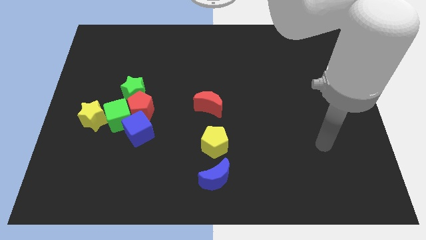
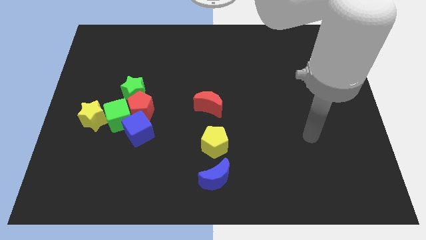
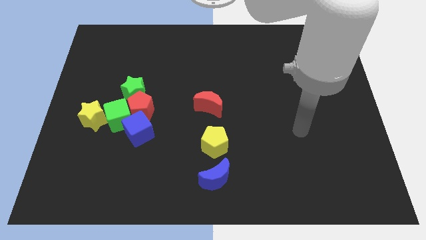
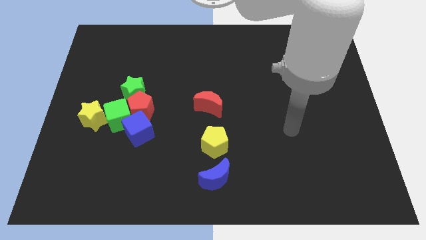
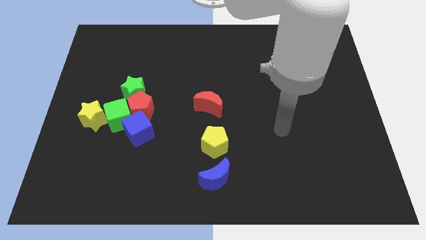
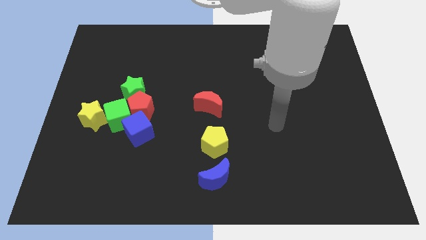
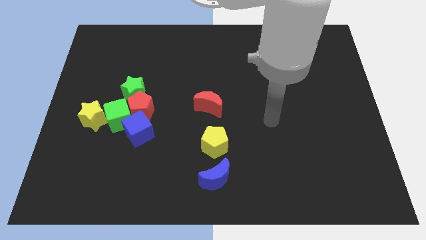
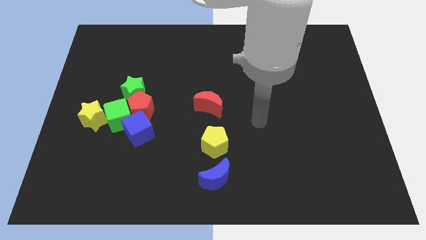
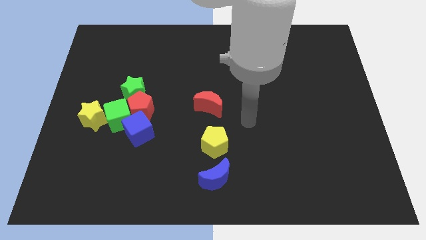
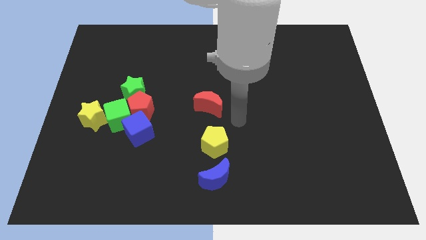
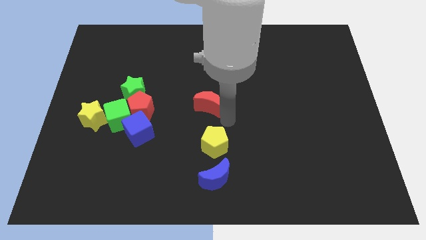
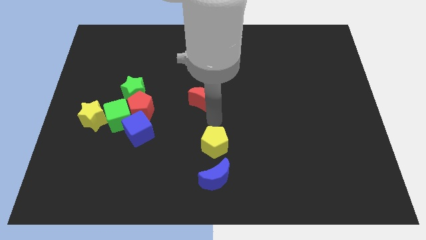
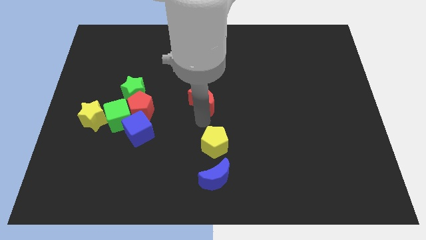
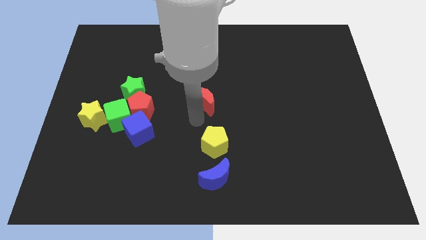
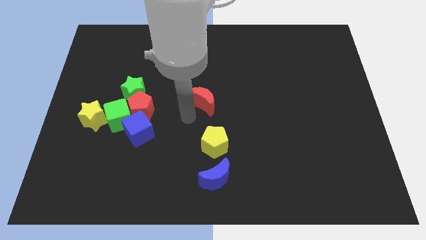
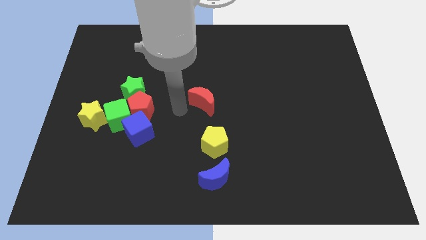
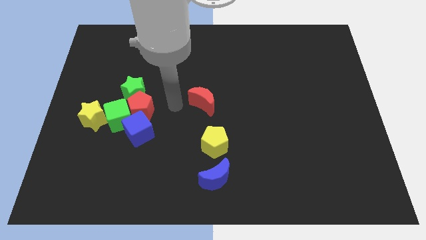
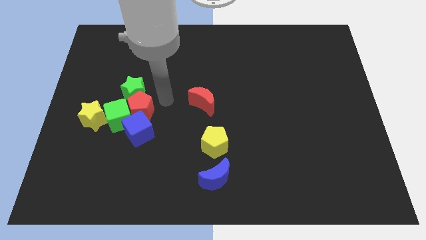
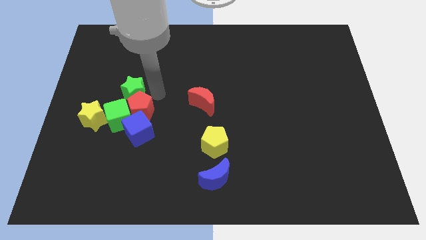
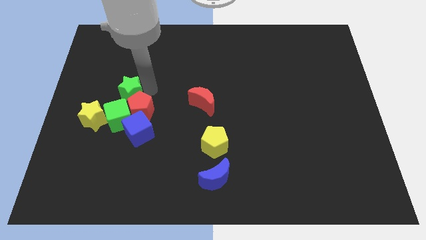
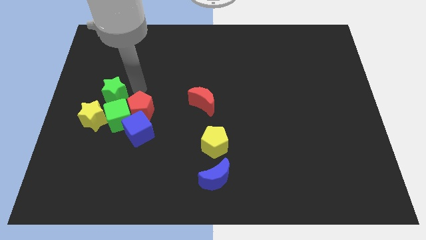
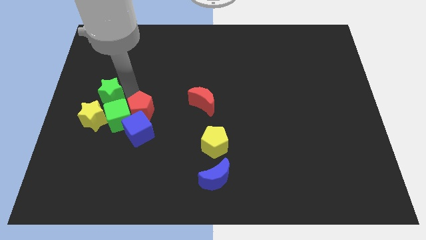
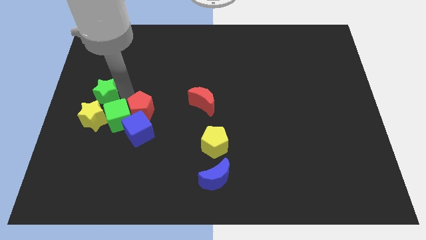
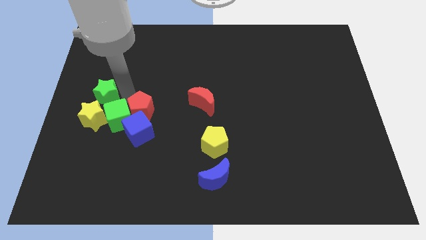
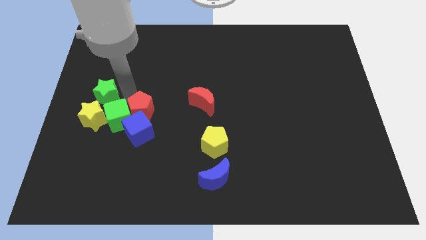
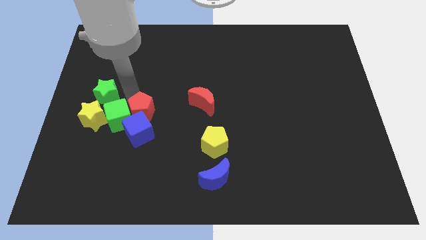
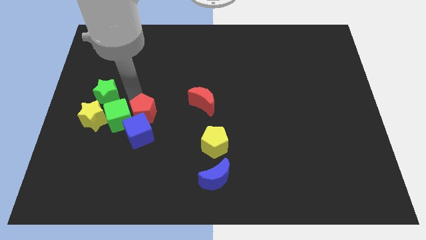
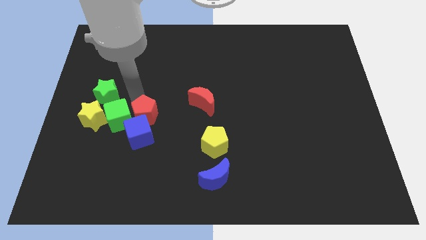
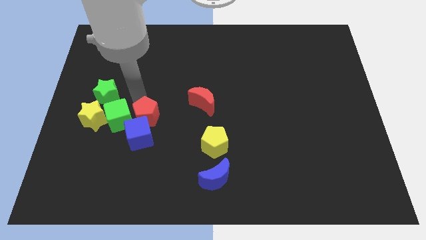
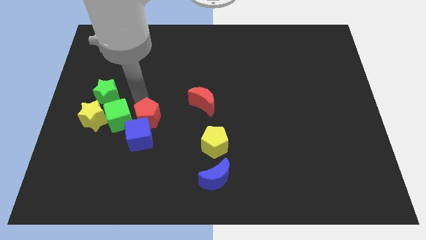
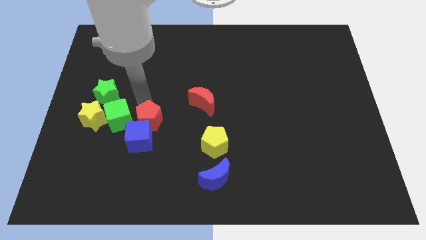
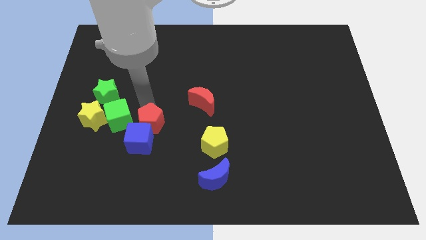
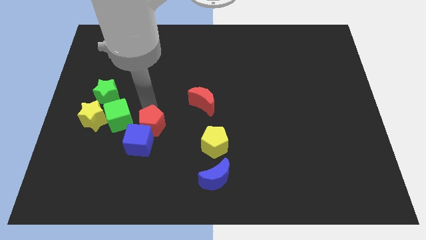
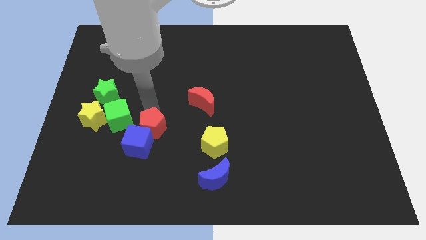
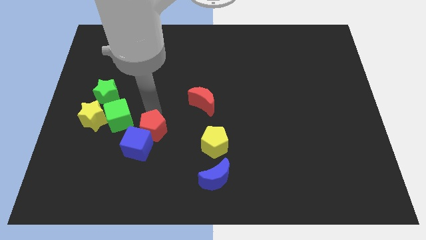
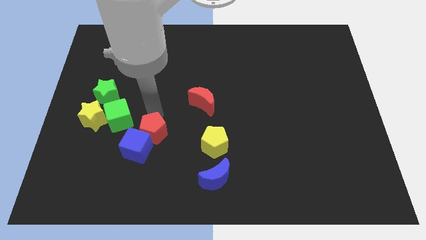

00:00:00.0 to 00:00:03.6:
move the red pentagon a little bit diagonally down and right

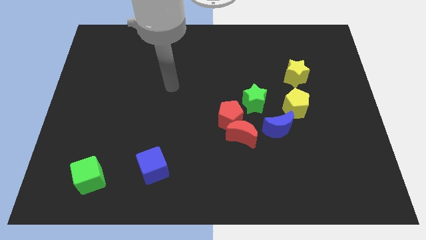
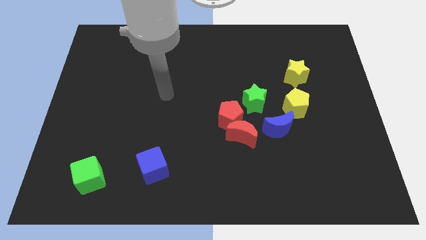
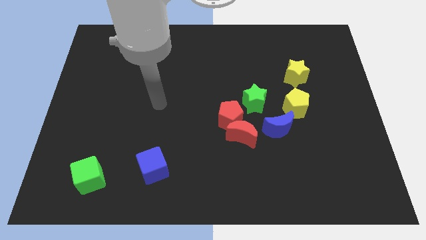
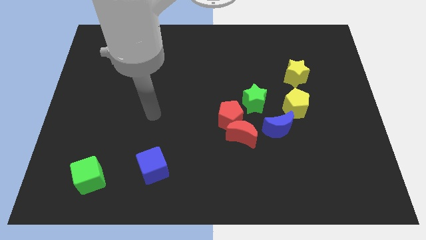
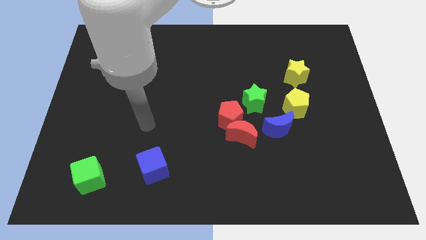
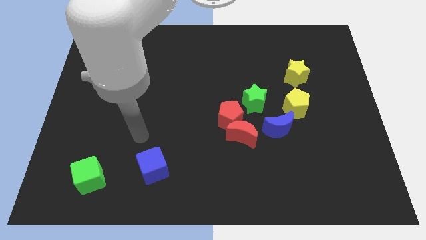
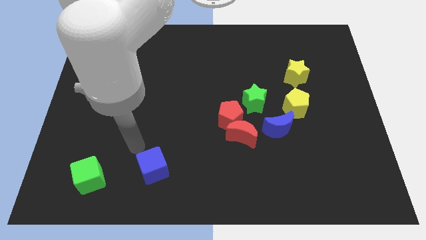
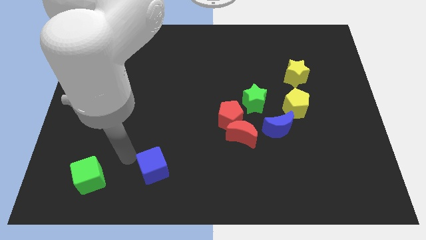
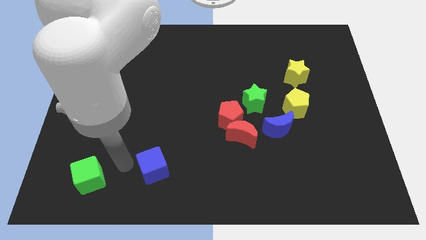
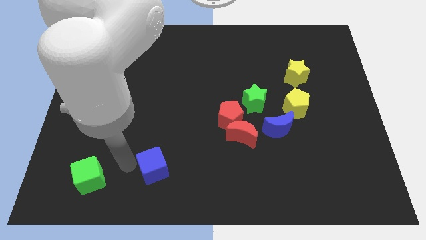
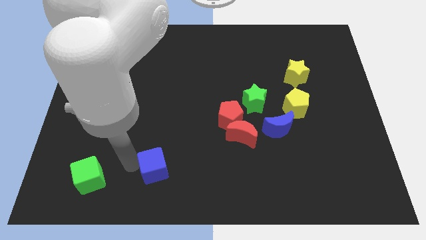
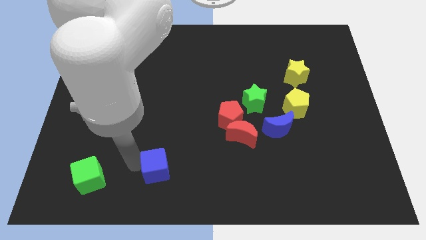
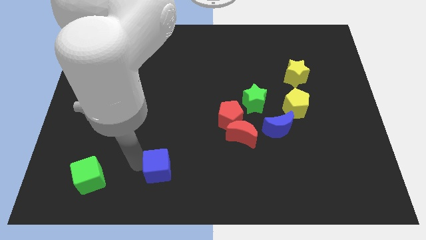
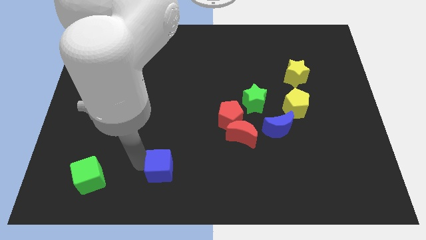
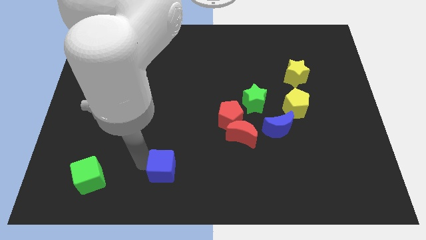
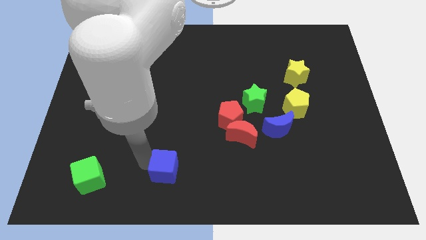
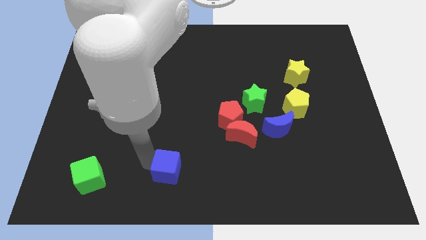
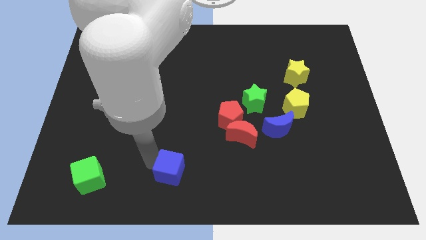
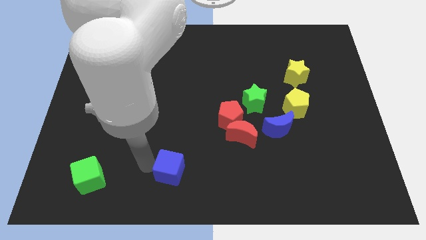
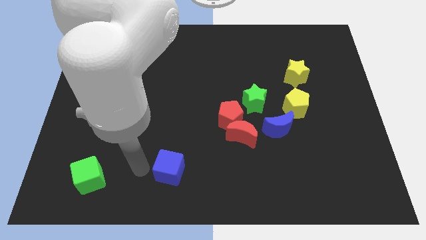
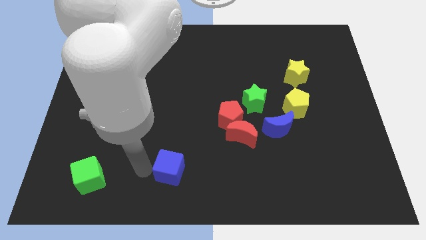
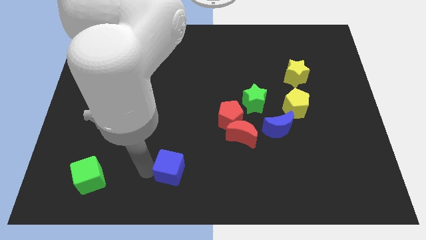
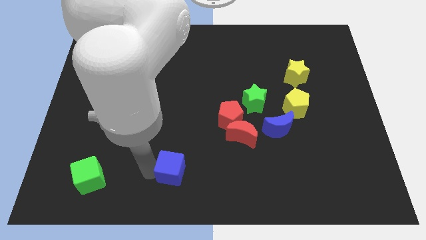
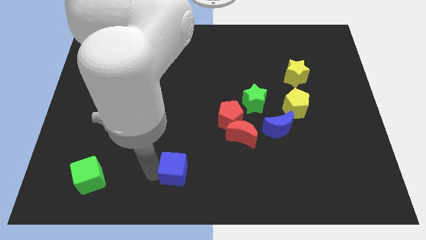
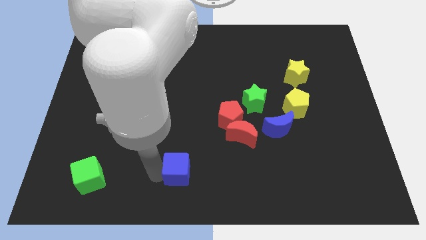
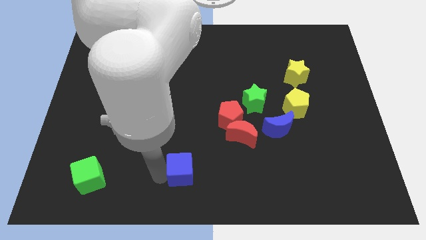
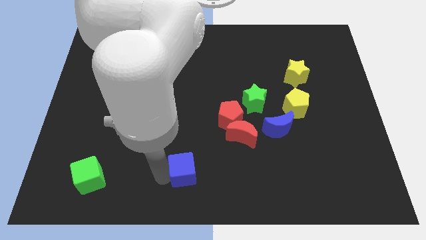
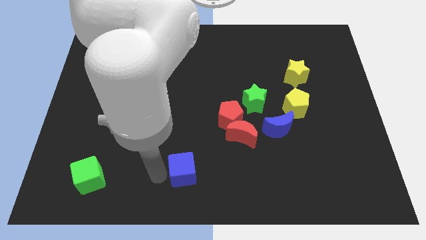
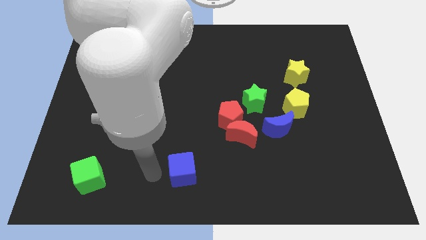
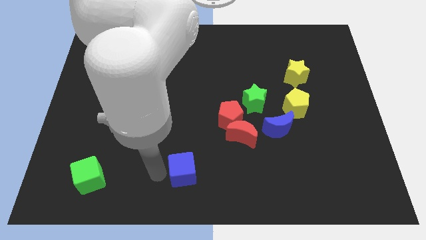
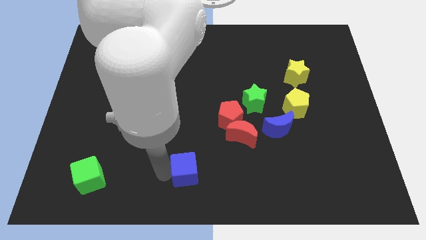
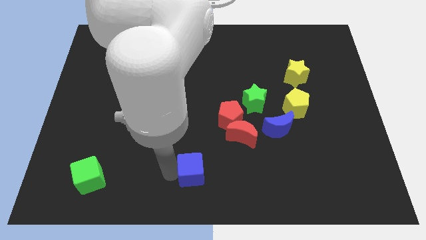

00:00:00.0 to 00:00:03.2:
slide the blue cube to the right somewhat

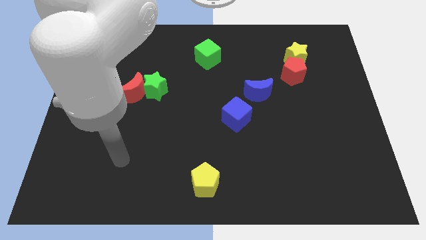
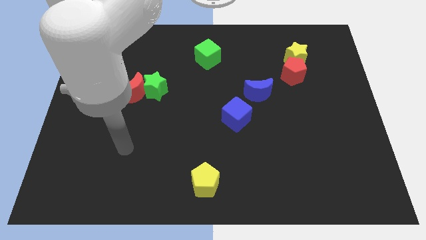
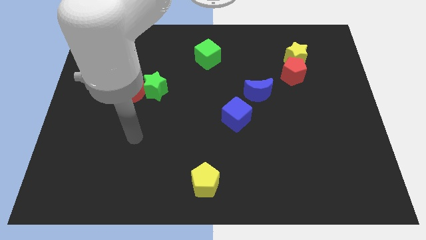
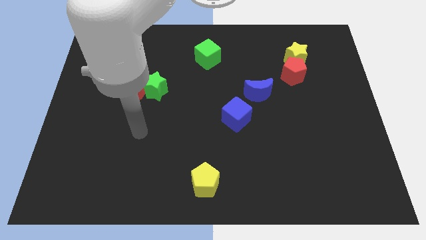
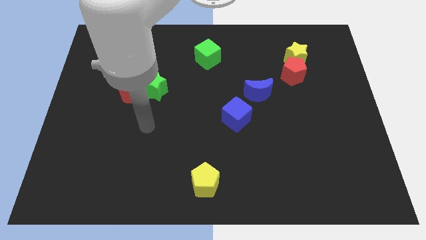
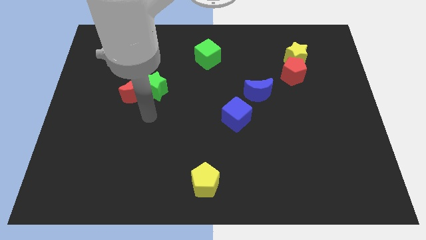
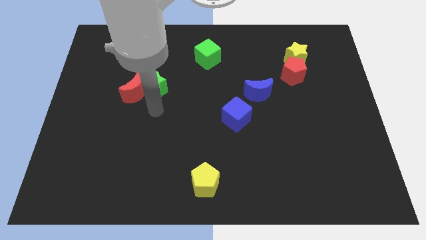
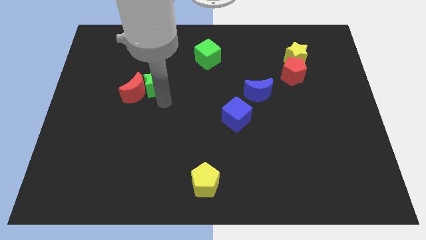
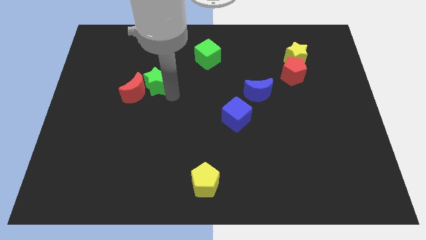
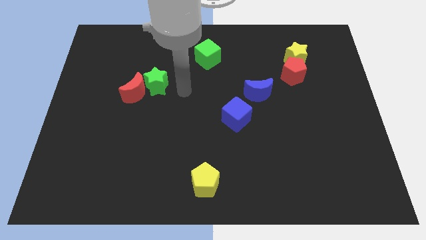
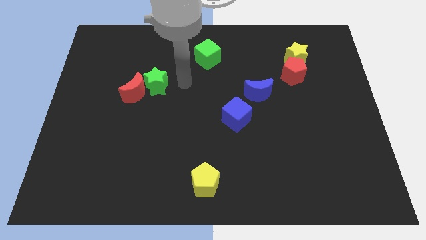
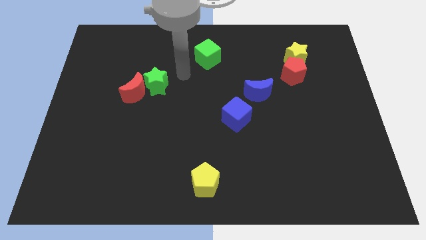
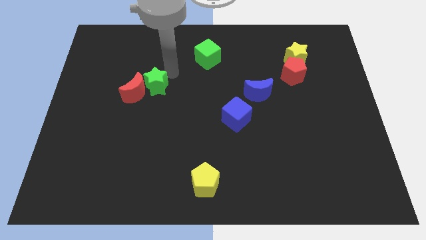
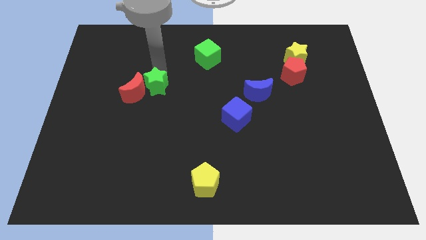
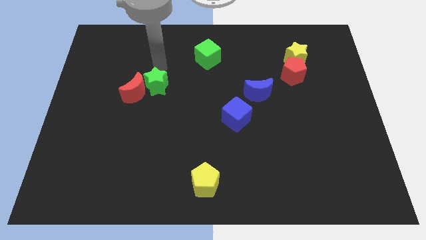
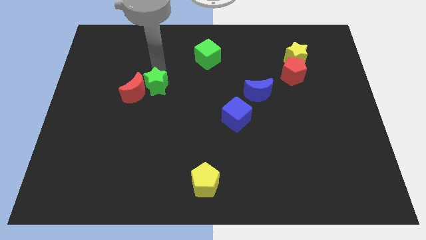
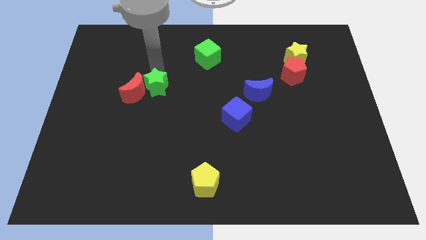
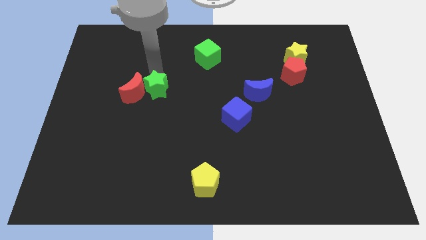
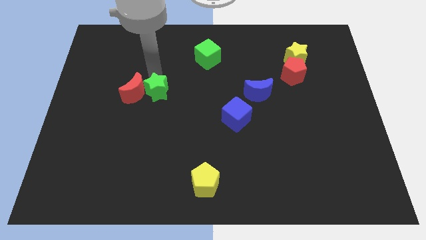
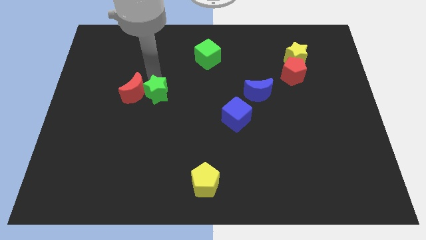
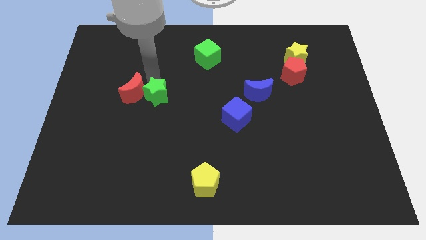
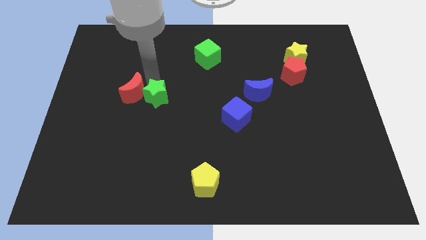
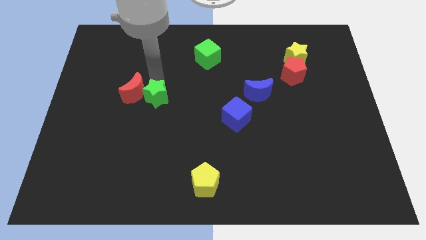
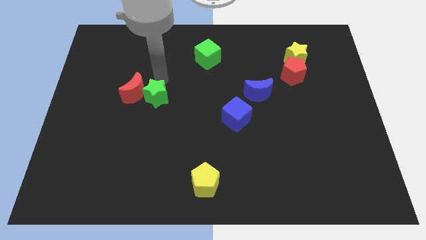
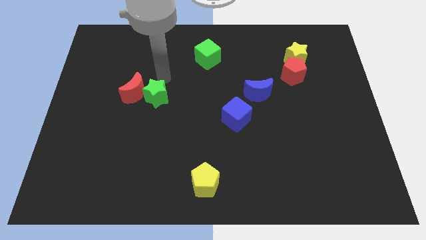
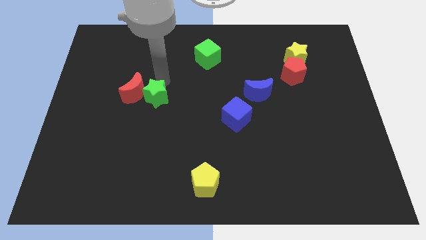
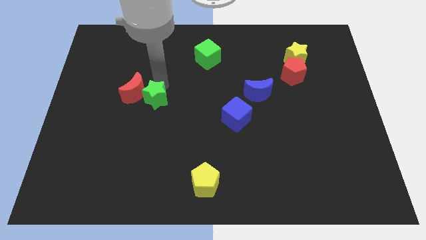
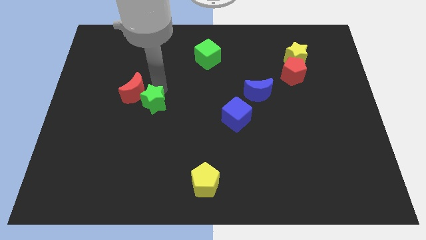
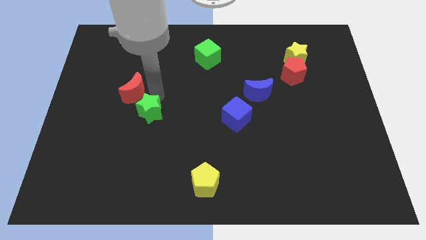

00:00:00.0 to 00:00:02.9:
move the green star slightly down
